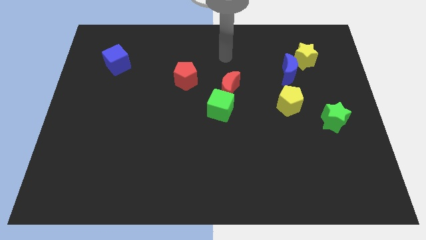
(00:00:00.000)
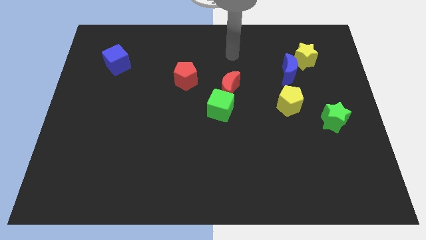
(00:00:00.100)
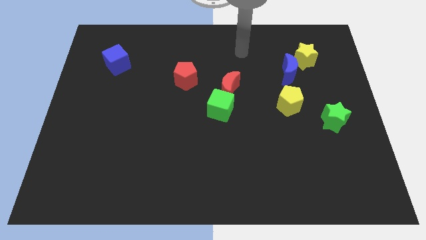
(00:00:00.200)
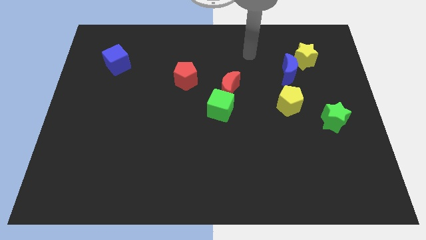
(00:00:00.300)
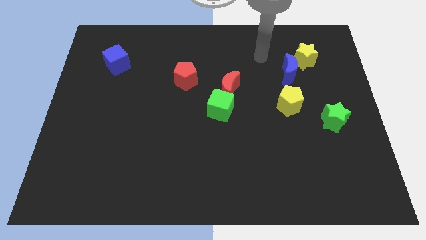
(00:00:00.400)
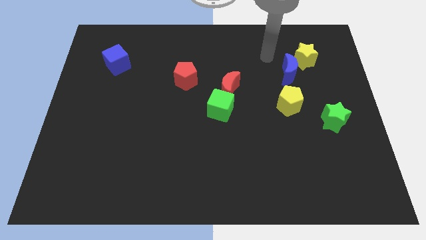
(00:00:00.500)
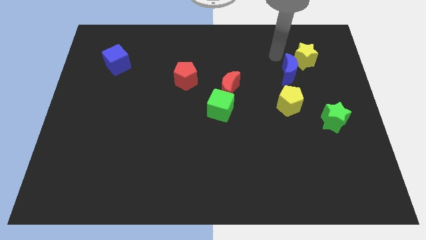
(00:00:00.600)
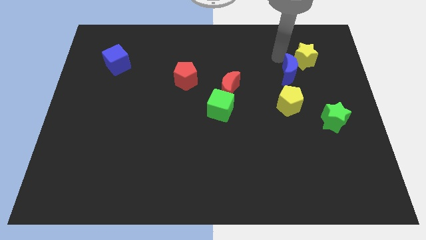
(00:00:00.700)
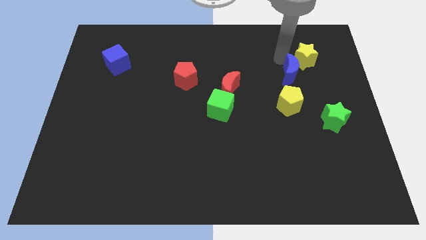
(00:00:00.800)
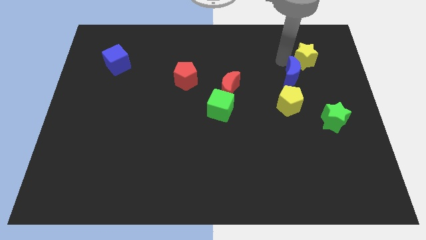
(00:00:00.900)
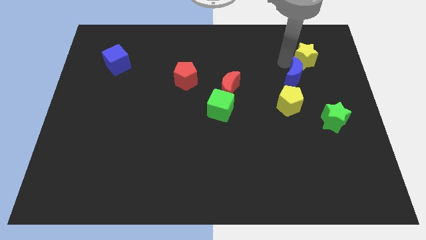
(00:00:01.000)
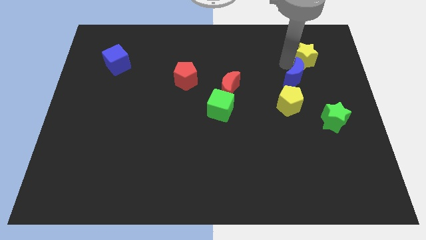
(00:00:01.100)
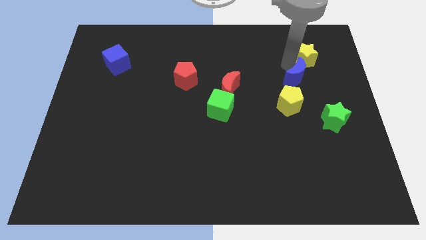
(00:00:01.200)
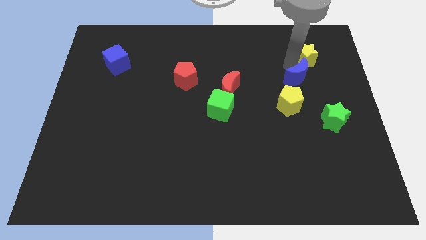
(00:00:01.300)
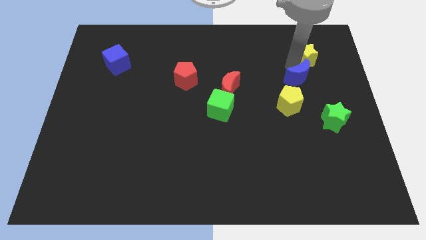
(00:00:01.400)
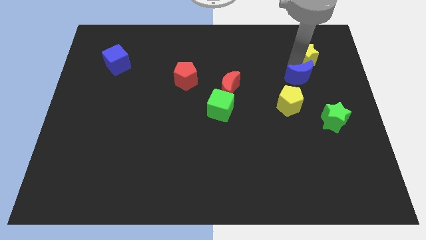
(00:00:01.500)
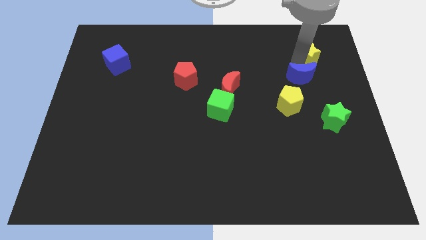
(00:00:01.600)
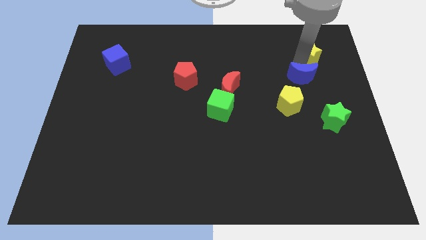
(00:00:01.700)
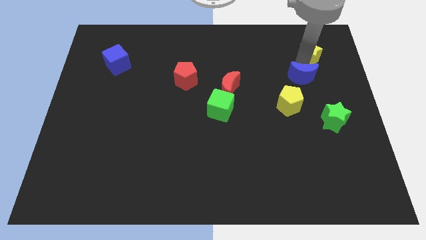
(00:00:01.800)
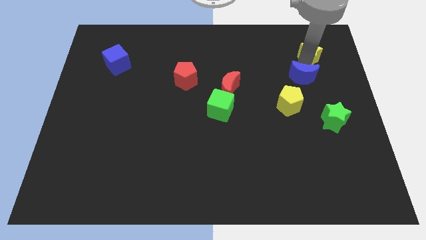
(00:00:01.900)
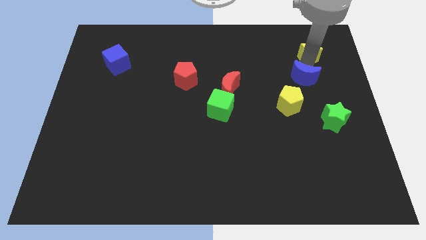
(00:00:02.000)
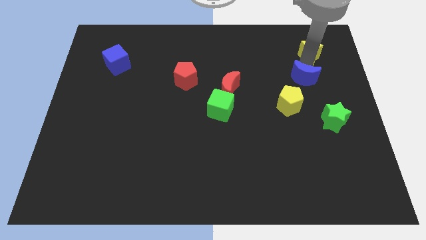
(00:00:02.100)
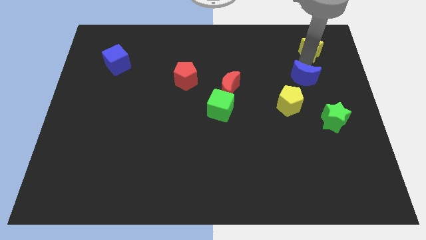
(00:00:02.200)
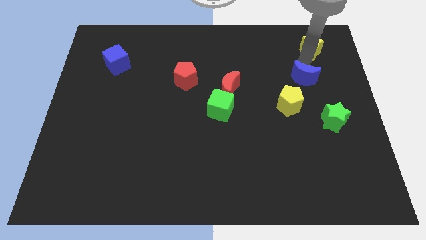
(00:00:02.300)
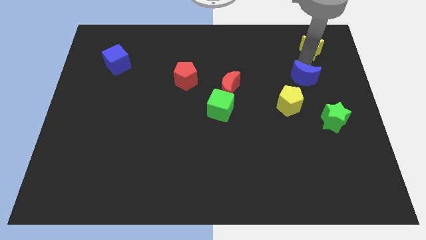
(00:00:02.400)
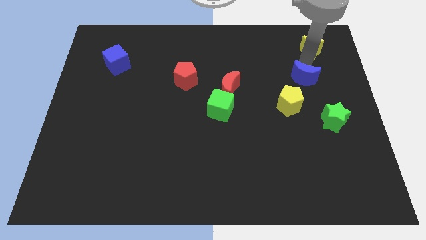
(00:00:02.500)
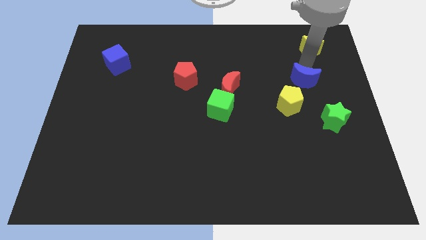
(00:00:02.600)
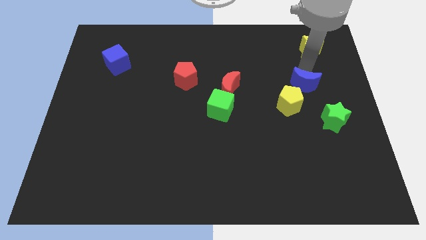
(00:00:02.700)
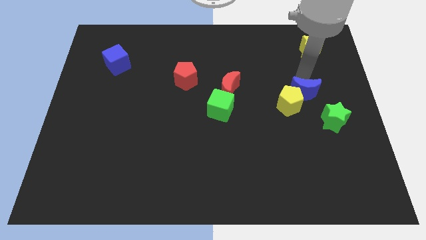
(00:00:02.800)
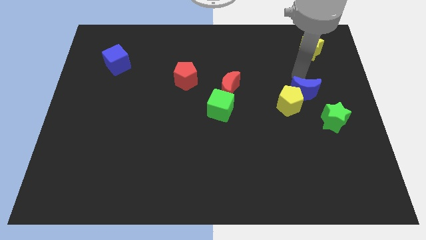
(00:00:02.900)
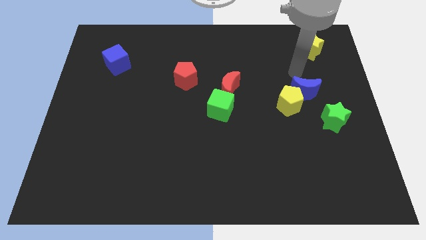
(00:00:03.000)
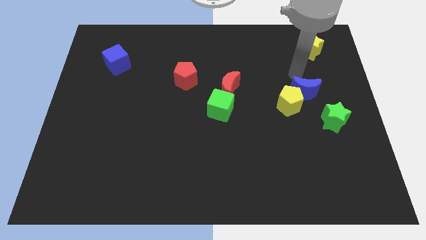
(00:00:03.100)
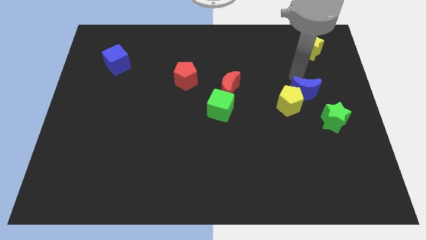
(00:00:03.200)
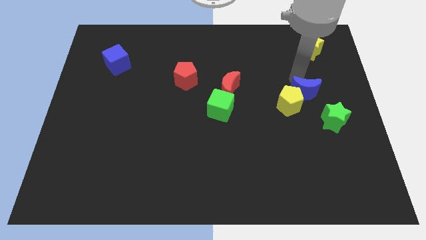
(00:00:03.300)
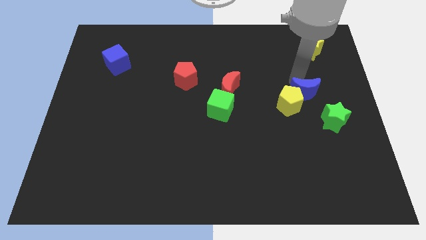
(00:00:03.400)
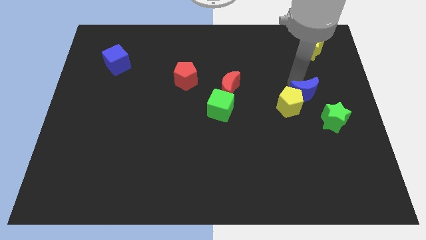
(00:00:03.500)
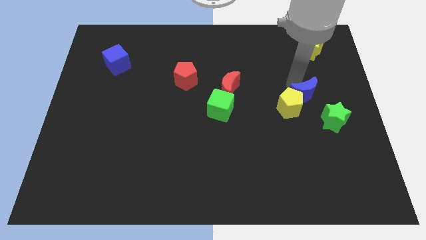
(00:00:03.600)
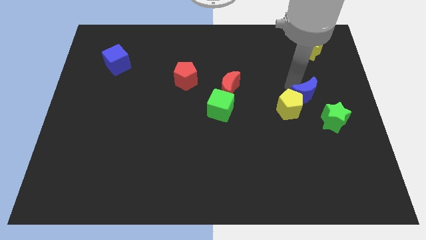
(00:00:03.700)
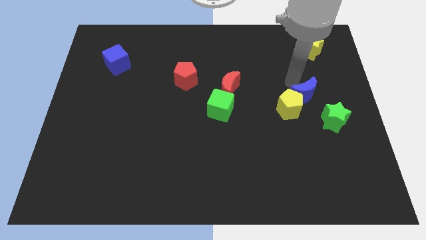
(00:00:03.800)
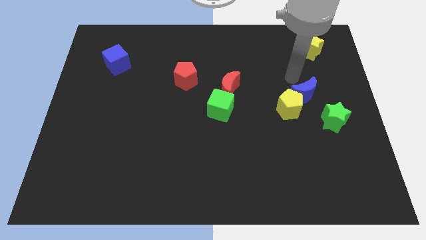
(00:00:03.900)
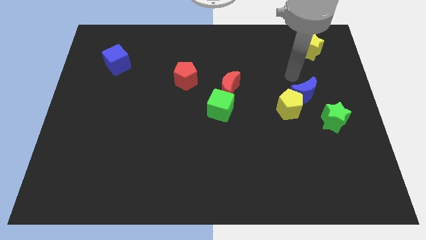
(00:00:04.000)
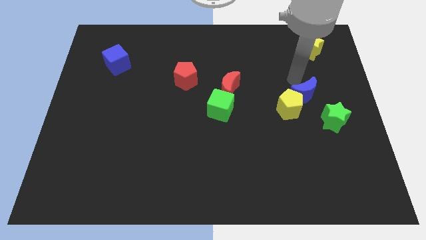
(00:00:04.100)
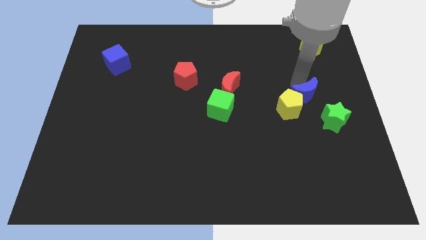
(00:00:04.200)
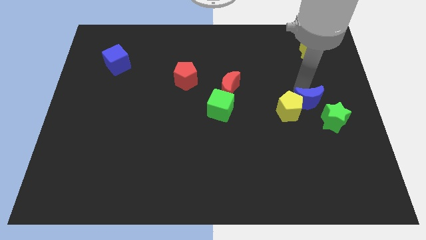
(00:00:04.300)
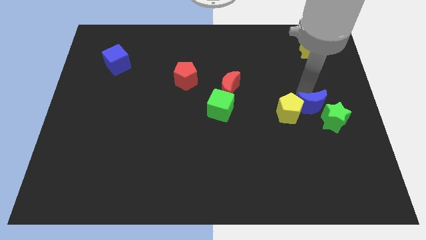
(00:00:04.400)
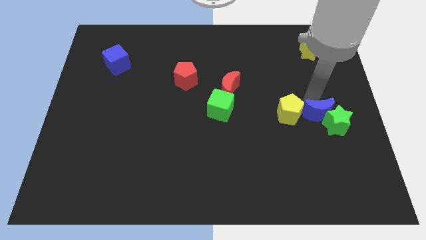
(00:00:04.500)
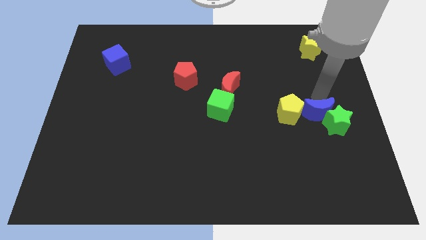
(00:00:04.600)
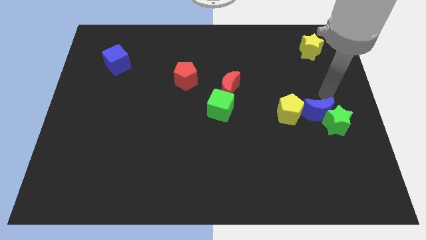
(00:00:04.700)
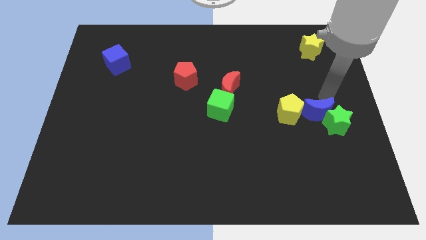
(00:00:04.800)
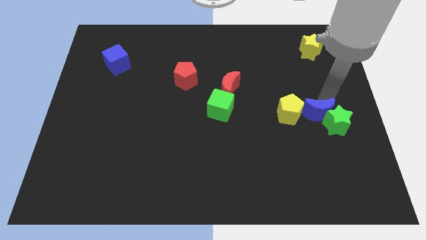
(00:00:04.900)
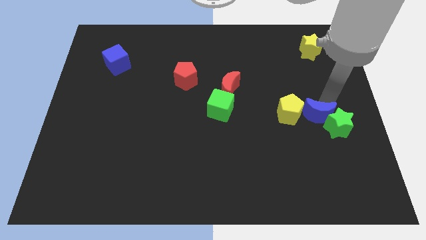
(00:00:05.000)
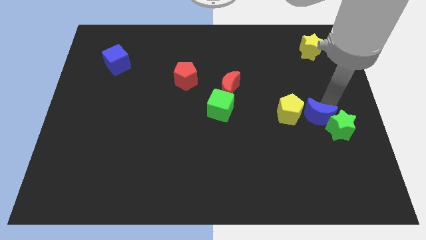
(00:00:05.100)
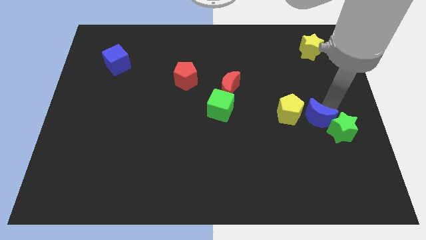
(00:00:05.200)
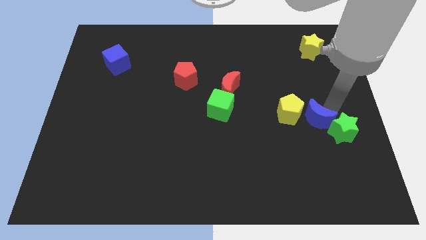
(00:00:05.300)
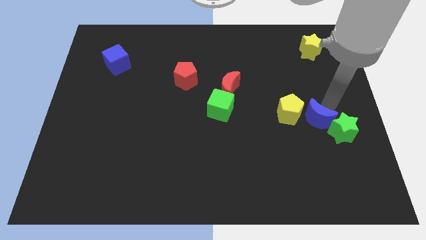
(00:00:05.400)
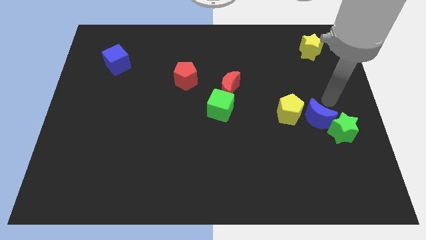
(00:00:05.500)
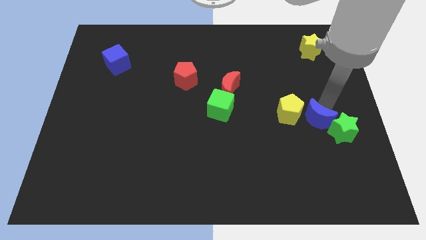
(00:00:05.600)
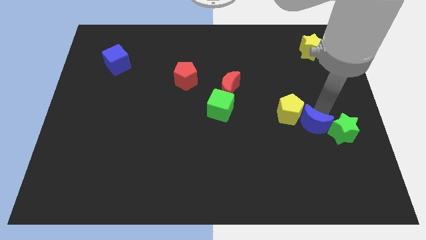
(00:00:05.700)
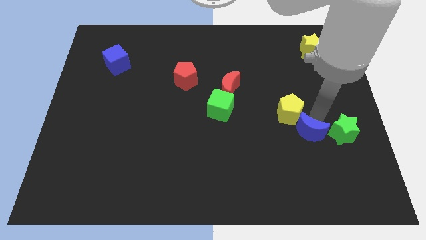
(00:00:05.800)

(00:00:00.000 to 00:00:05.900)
move the blue moon to the bottom side of the yellow pentagon
